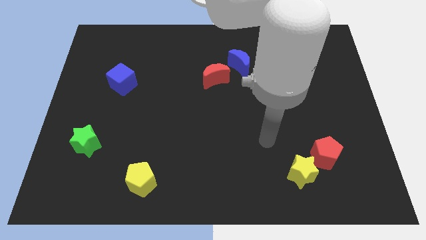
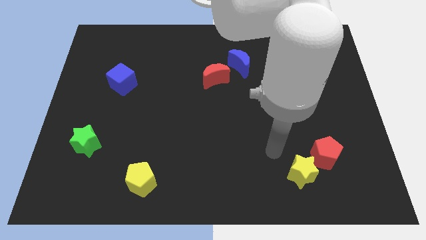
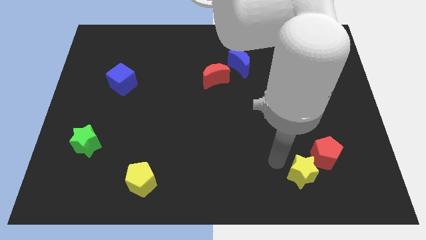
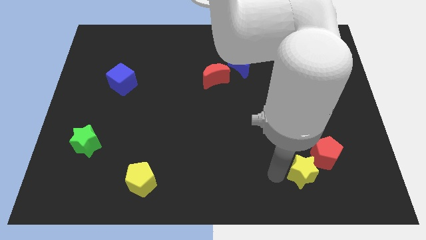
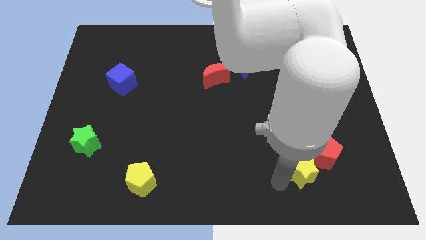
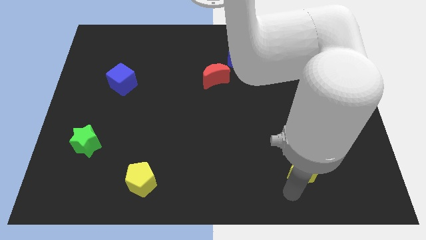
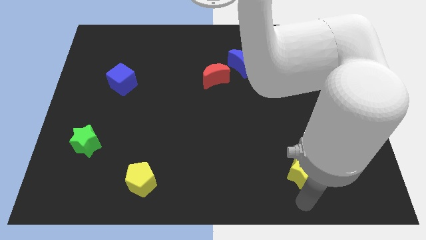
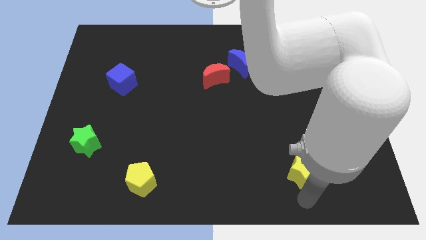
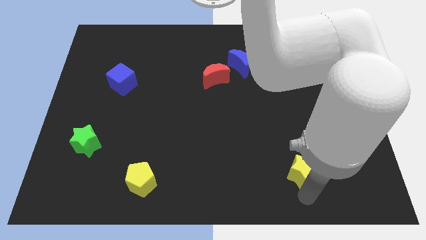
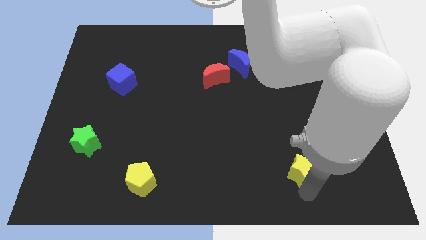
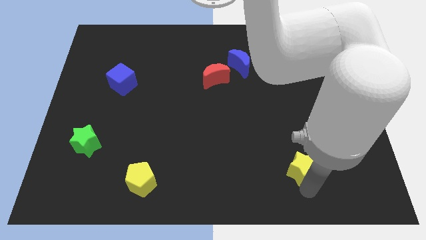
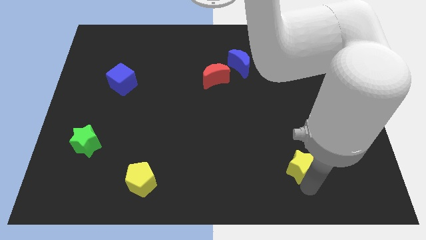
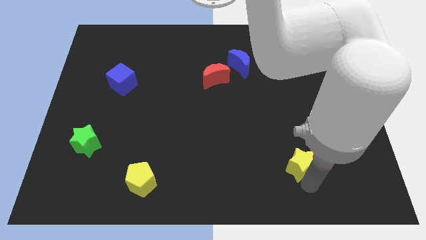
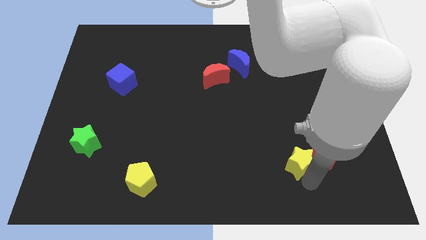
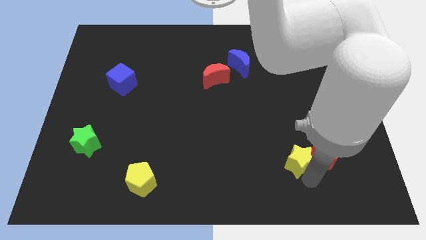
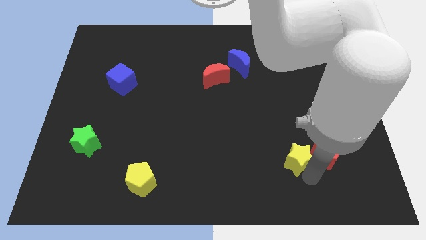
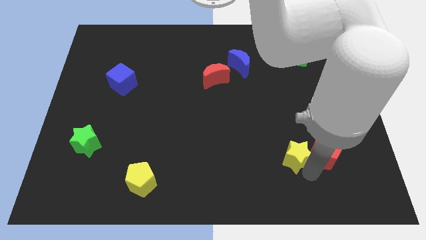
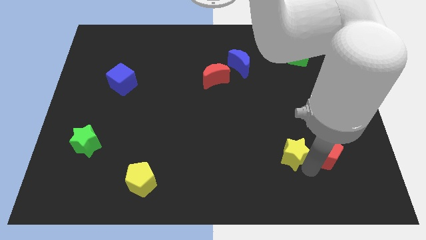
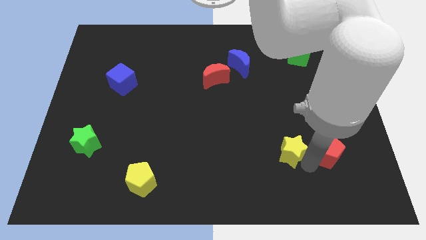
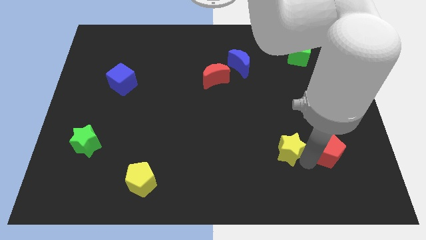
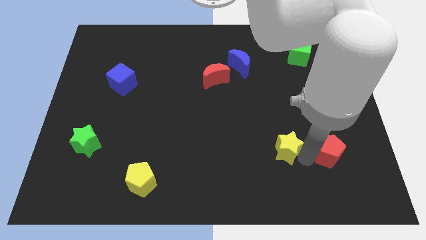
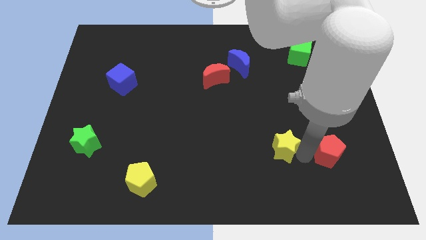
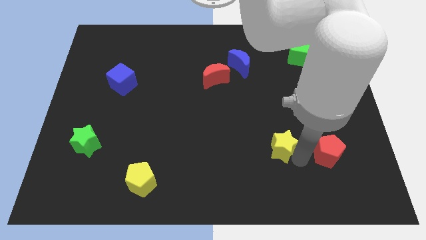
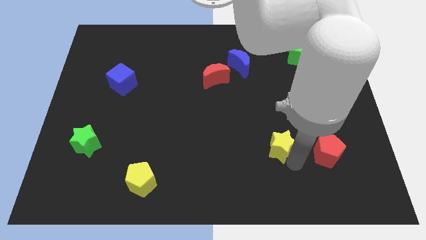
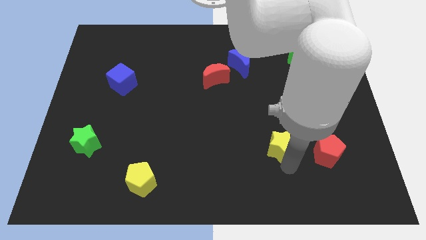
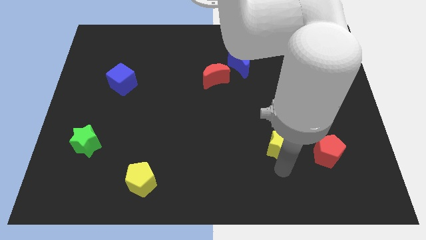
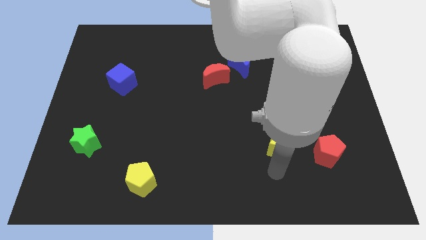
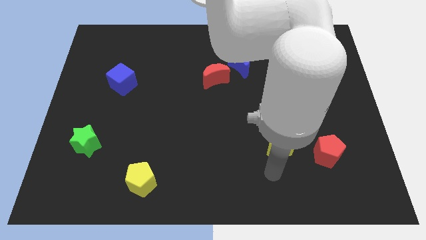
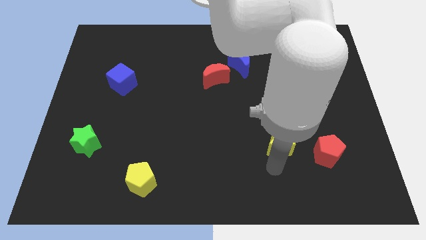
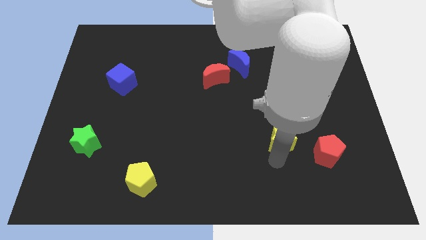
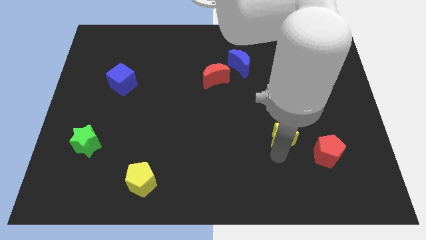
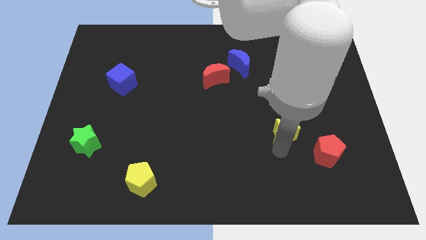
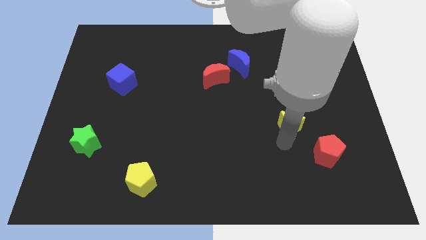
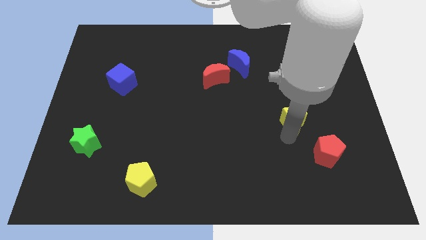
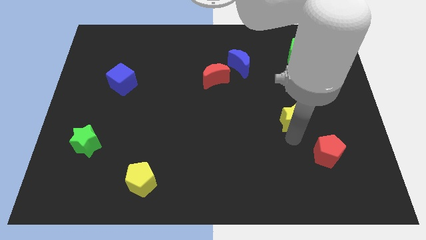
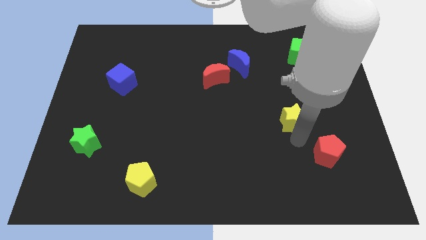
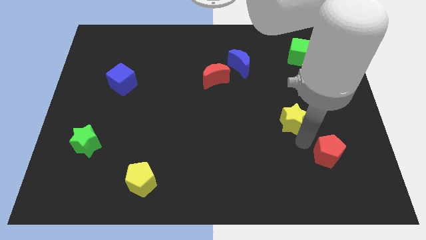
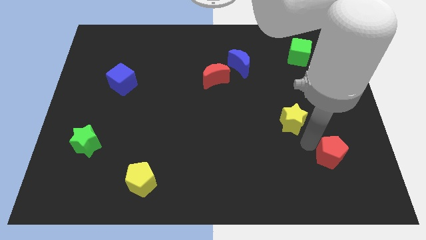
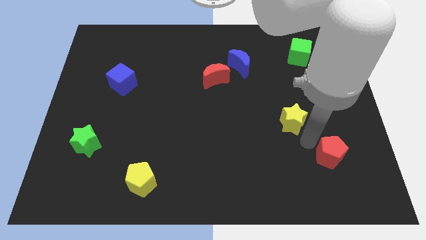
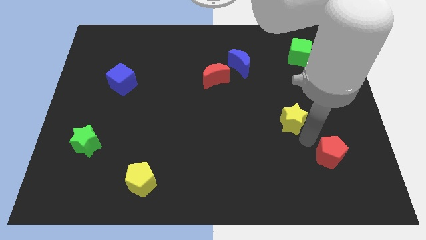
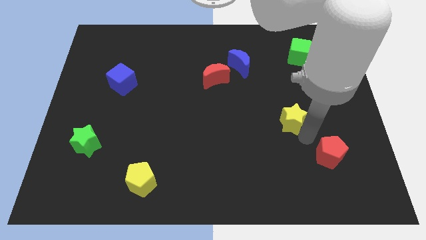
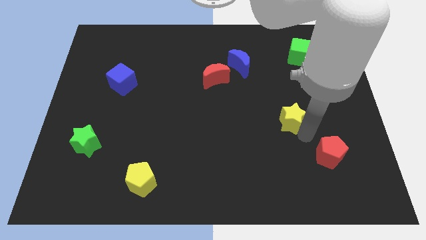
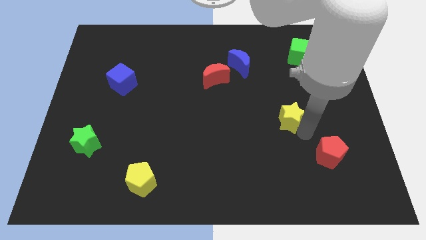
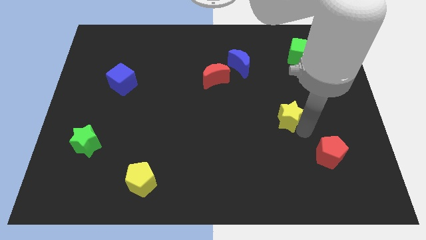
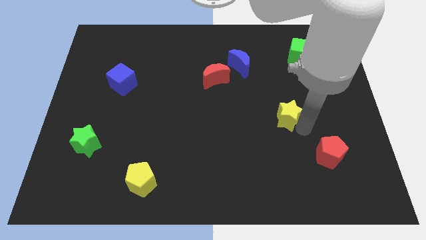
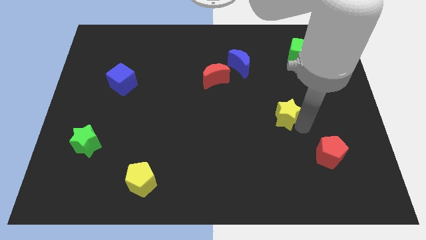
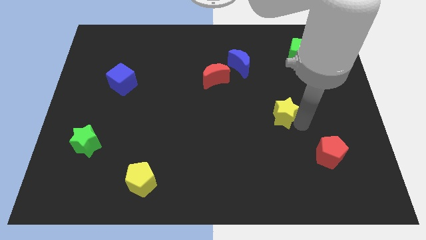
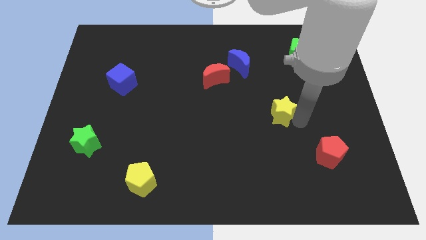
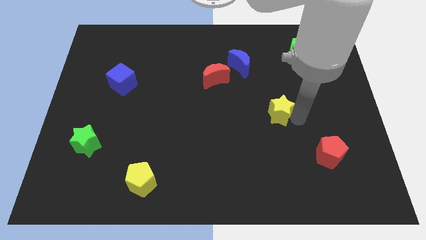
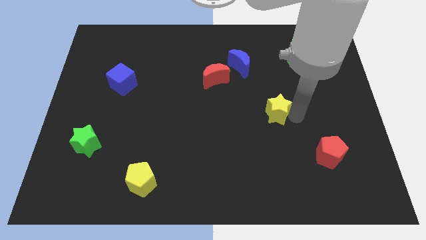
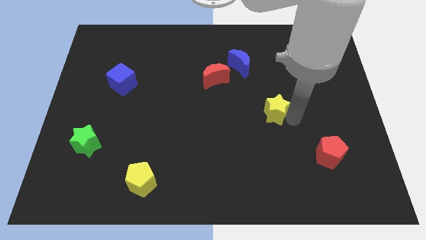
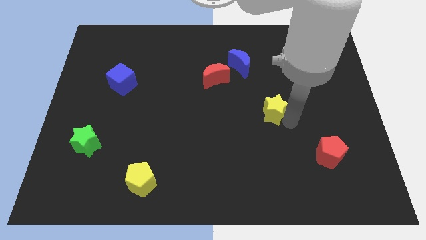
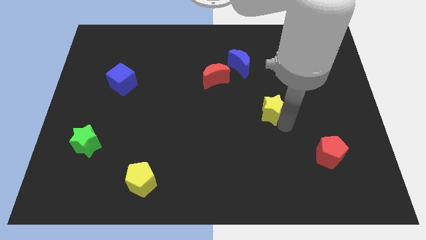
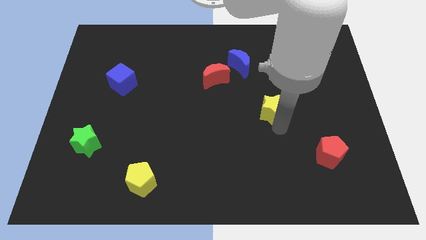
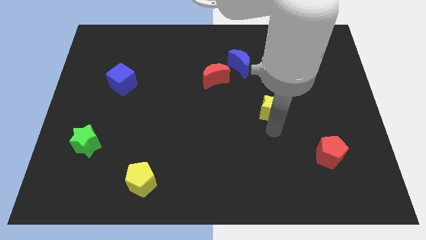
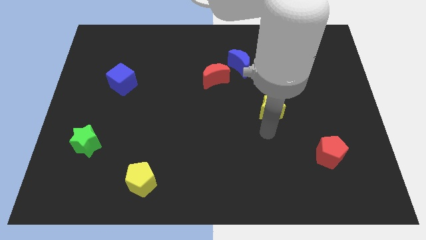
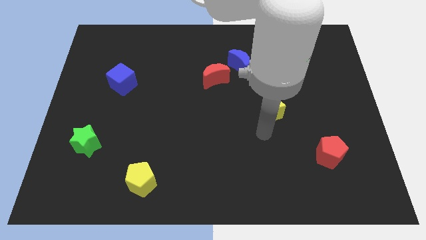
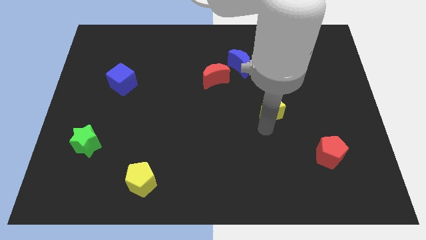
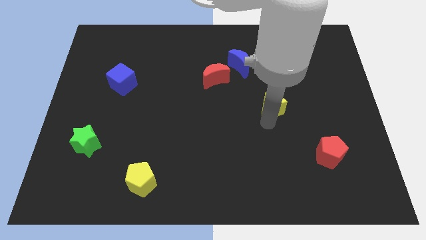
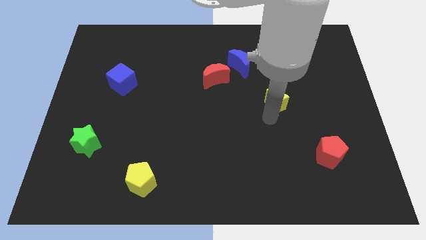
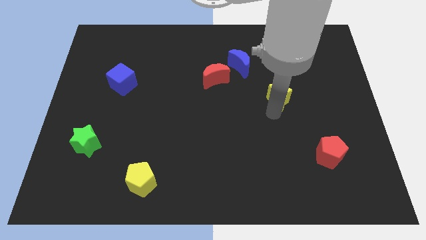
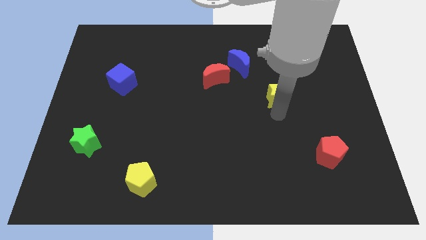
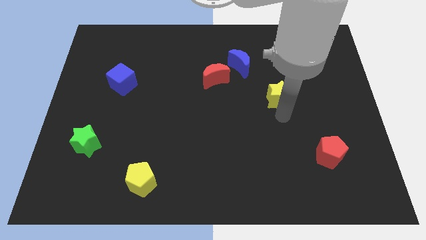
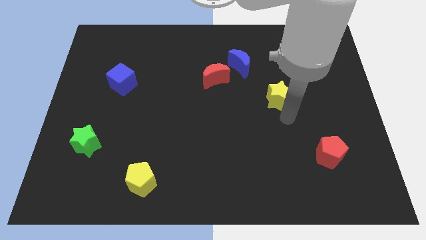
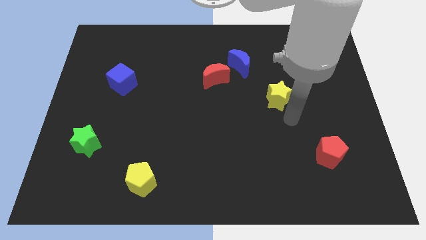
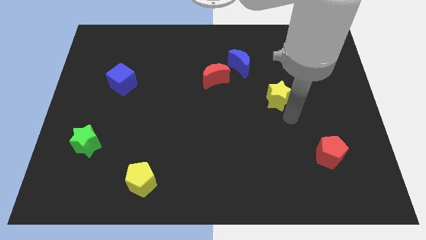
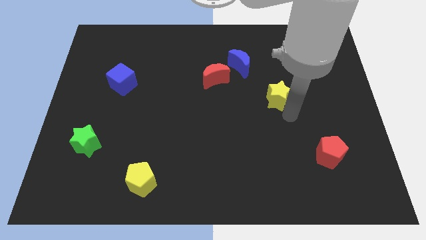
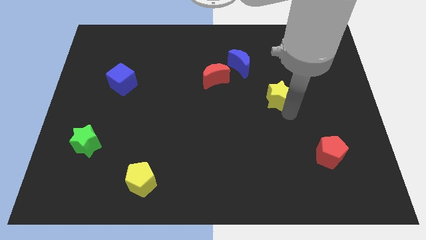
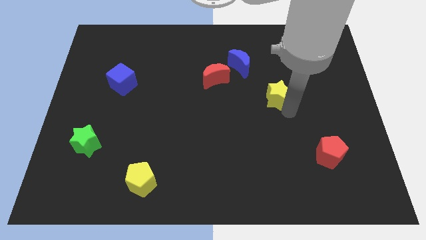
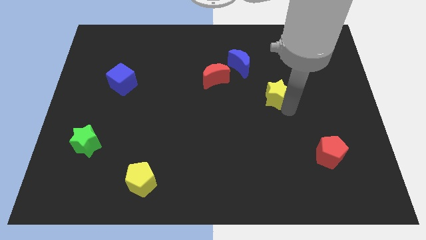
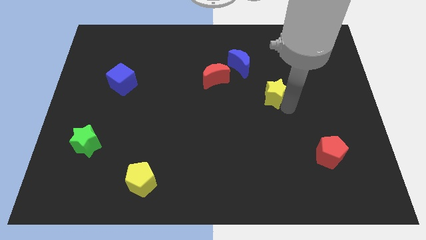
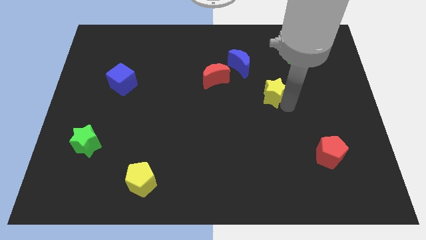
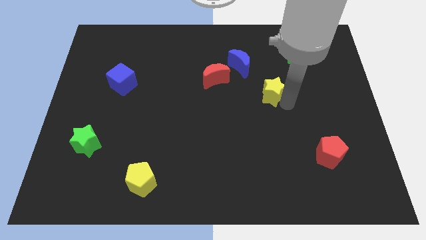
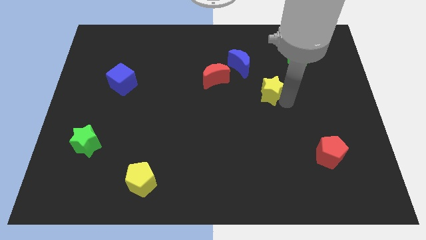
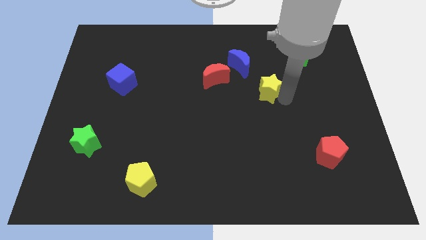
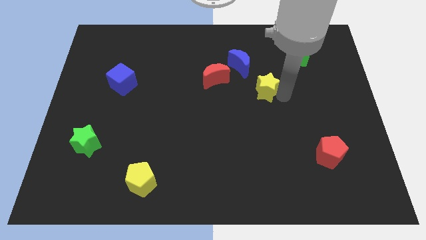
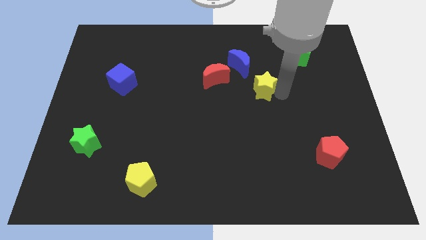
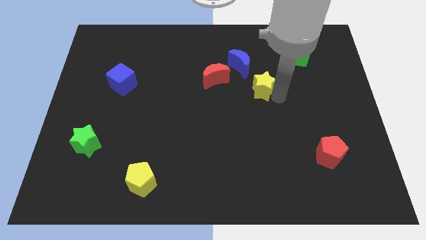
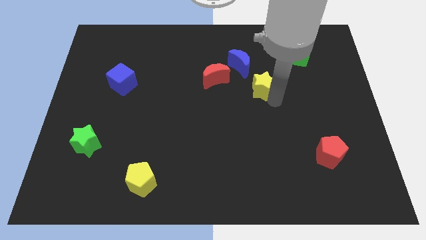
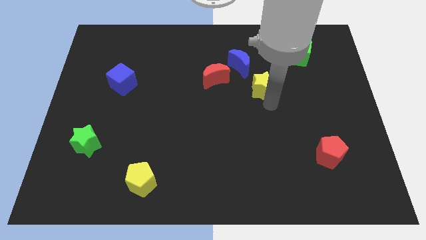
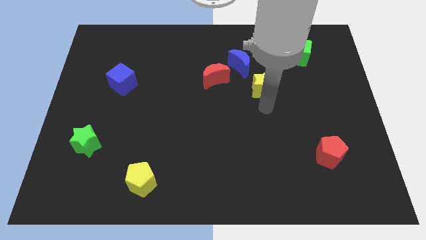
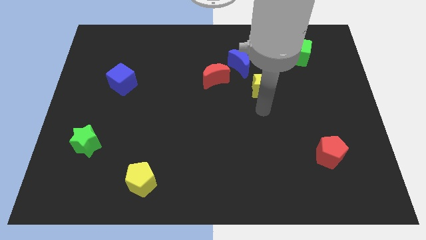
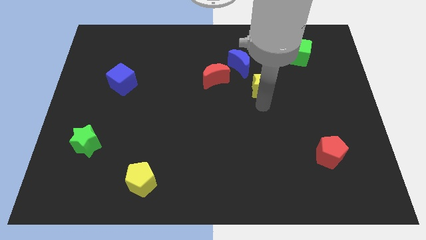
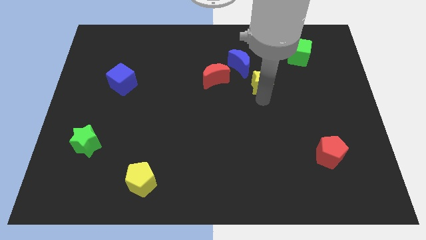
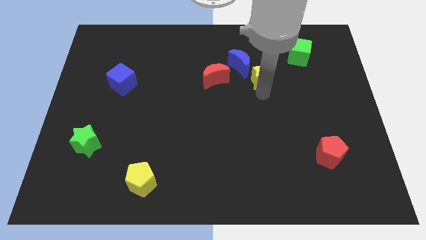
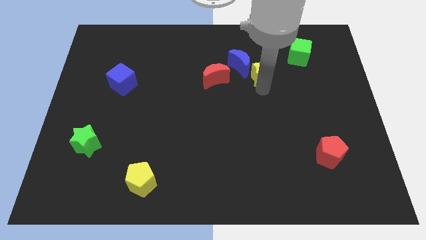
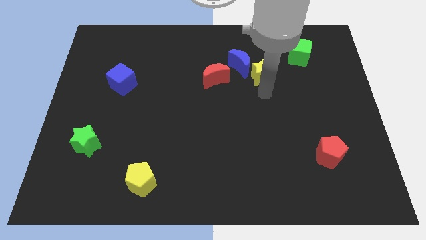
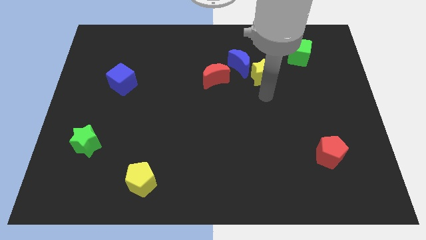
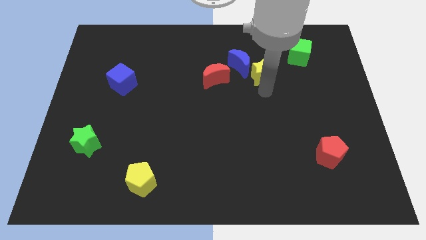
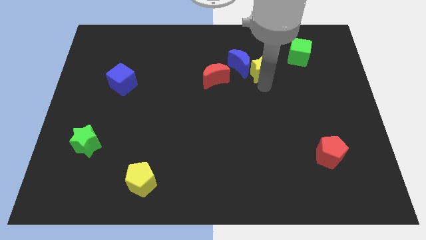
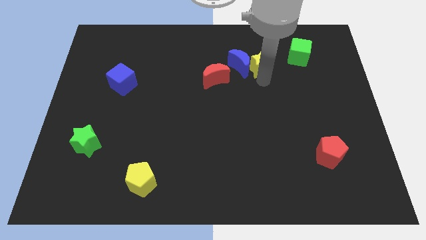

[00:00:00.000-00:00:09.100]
slide the yellow star just left of the green cube
